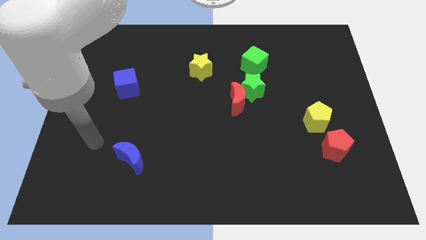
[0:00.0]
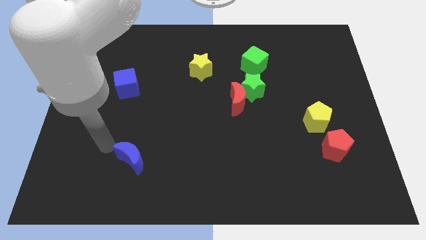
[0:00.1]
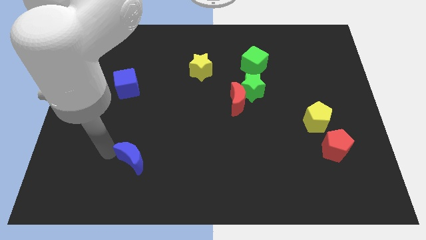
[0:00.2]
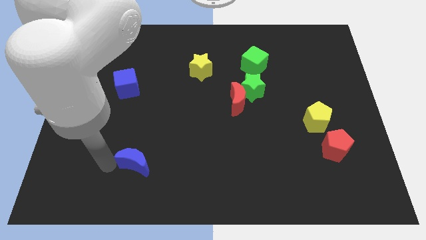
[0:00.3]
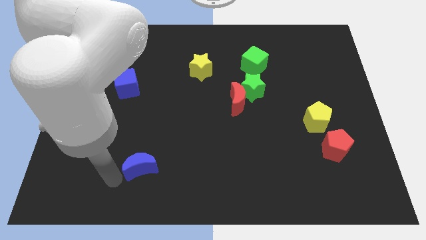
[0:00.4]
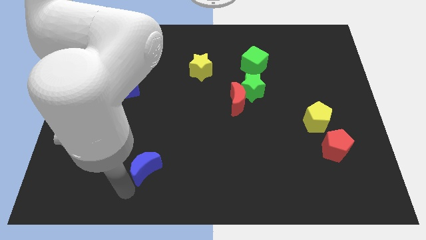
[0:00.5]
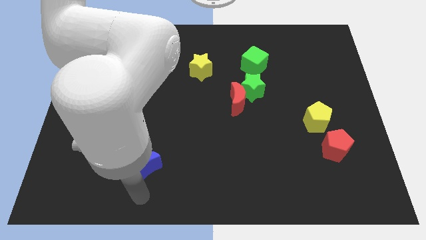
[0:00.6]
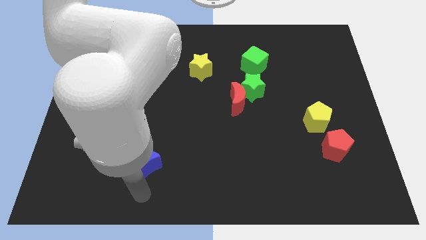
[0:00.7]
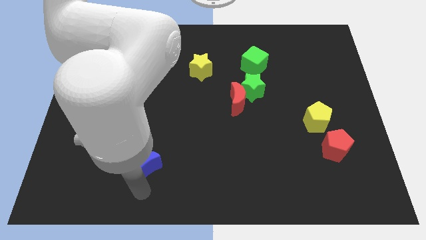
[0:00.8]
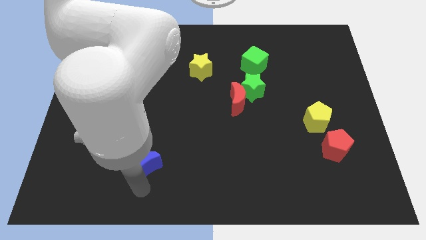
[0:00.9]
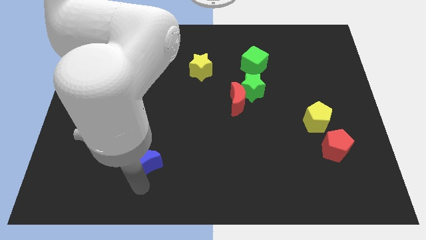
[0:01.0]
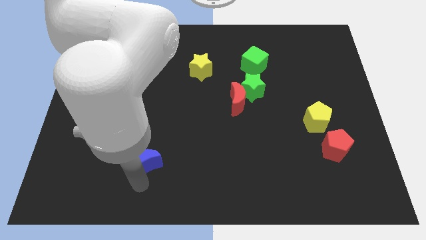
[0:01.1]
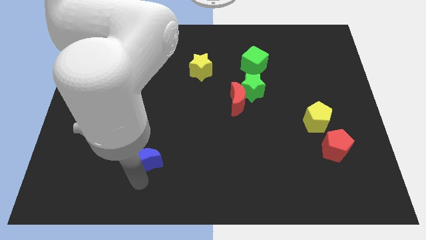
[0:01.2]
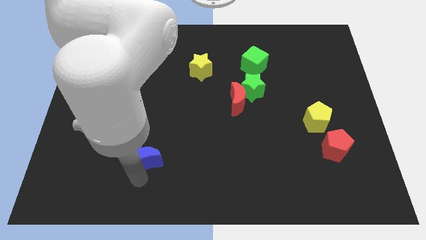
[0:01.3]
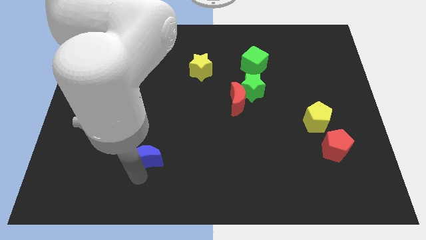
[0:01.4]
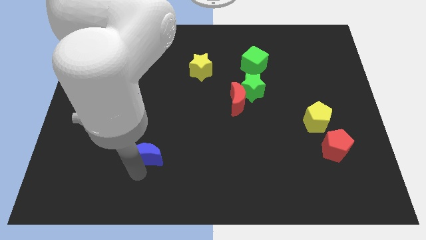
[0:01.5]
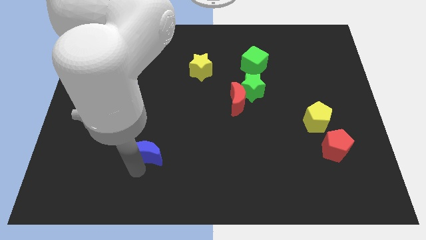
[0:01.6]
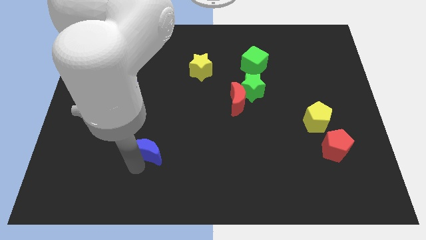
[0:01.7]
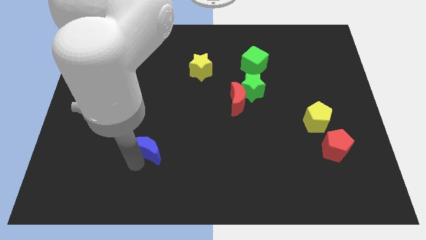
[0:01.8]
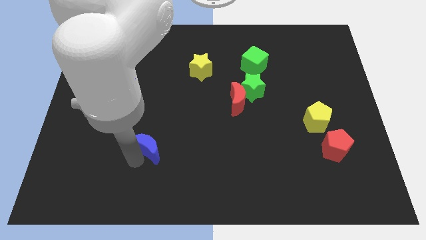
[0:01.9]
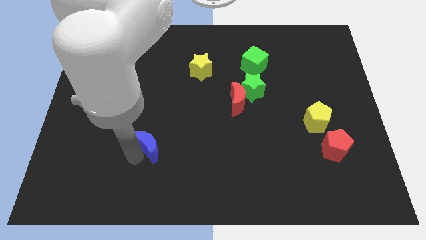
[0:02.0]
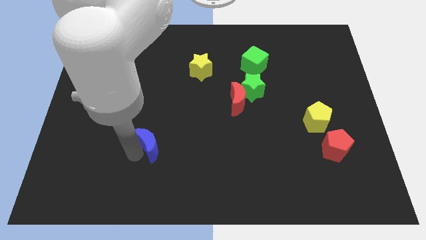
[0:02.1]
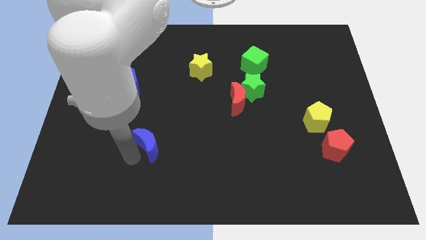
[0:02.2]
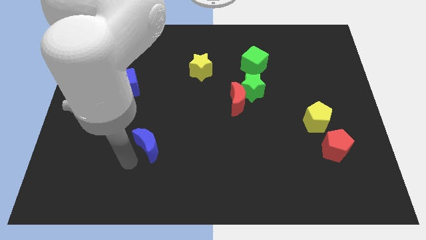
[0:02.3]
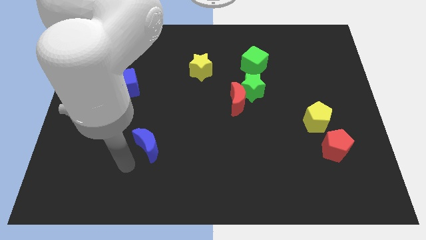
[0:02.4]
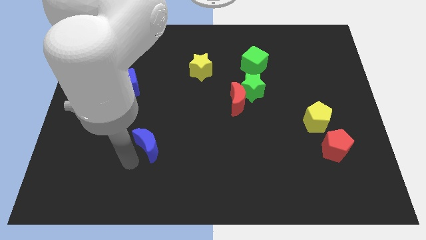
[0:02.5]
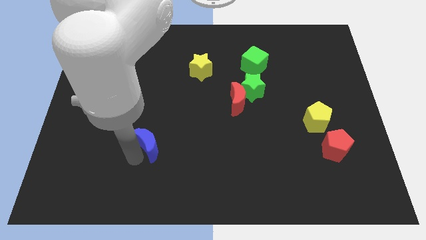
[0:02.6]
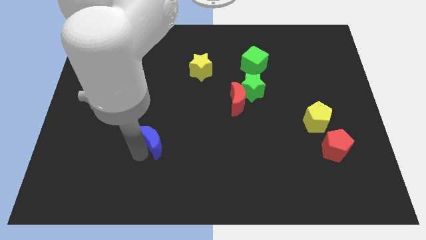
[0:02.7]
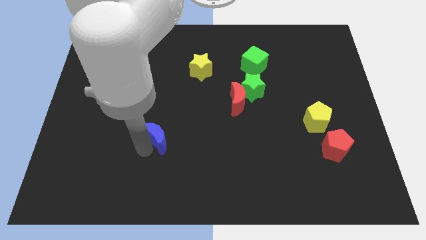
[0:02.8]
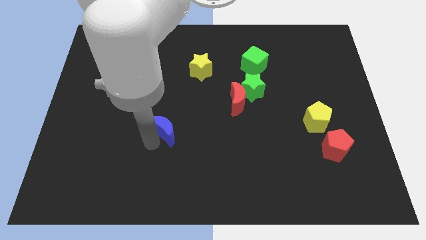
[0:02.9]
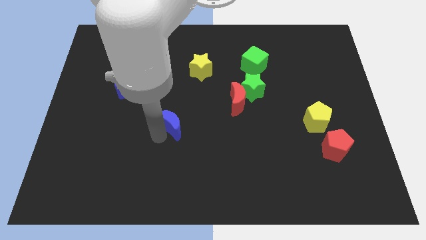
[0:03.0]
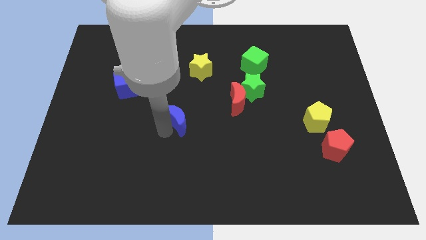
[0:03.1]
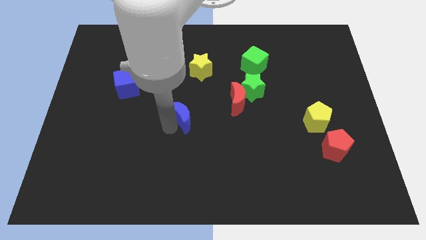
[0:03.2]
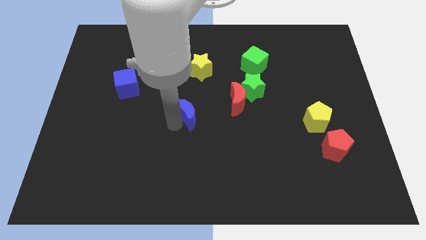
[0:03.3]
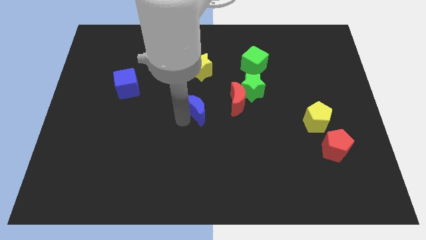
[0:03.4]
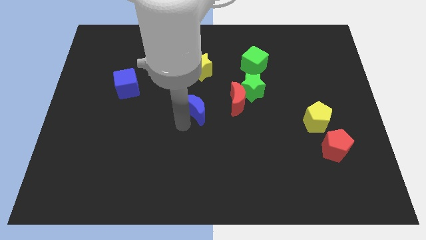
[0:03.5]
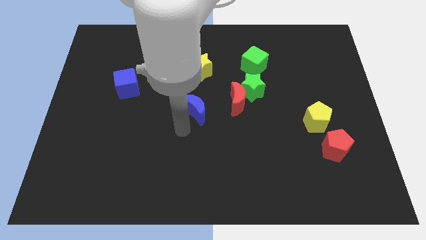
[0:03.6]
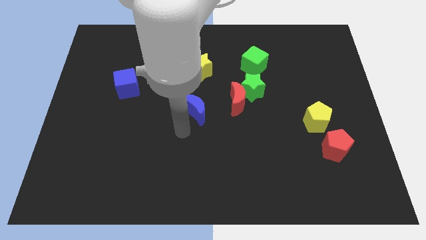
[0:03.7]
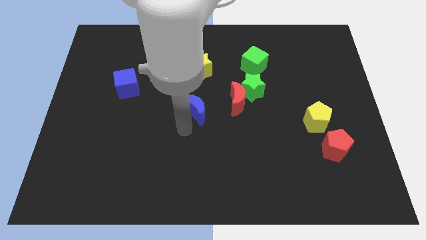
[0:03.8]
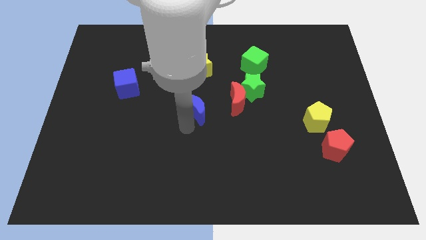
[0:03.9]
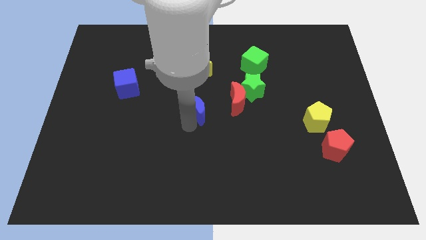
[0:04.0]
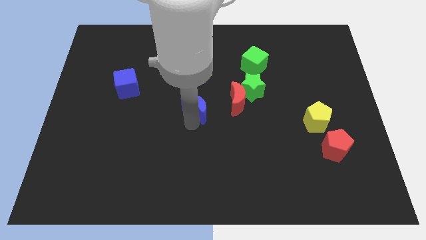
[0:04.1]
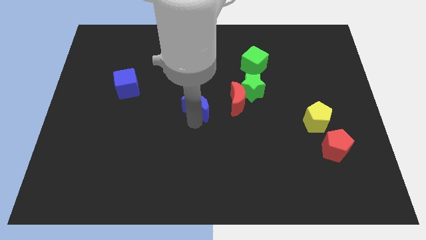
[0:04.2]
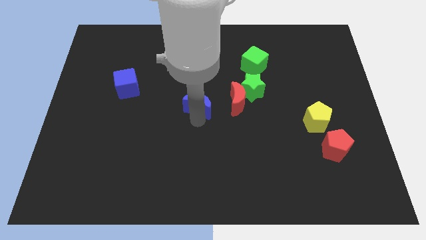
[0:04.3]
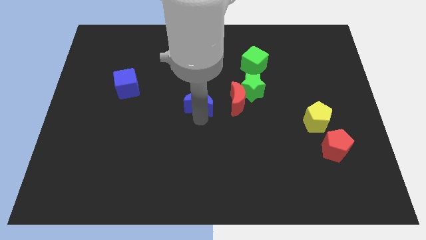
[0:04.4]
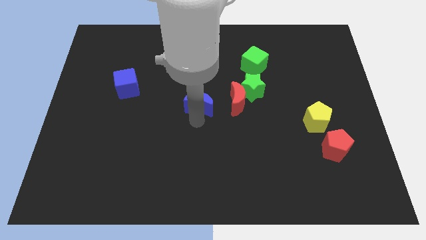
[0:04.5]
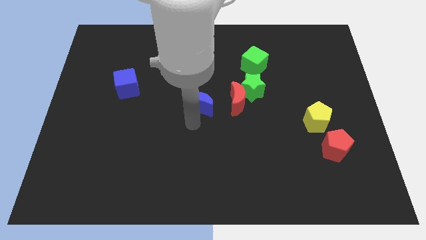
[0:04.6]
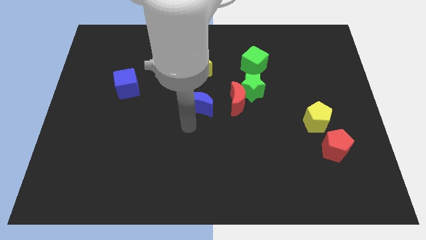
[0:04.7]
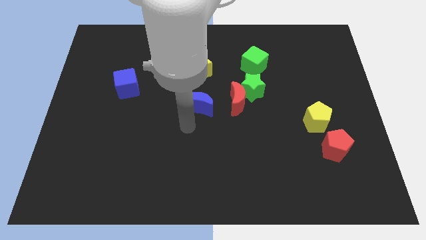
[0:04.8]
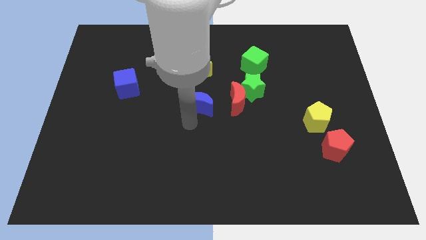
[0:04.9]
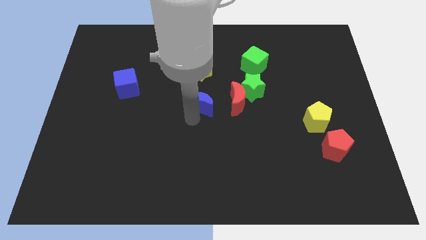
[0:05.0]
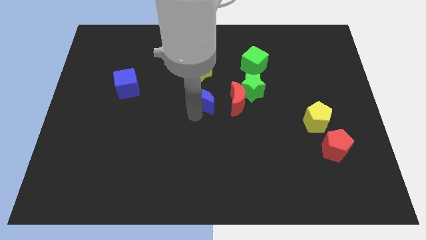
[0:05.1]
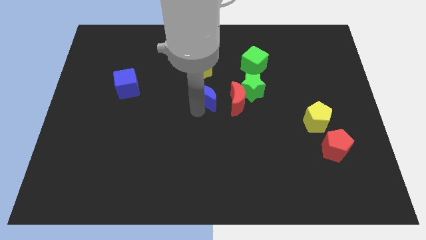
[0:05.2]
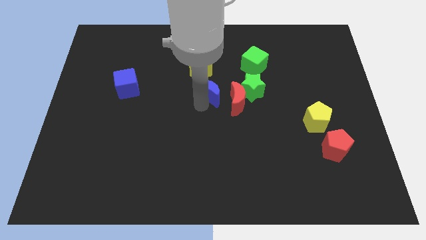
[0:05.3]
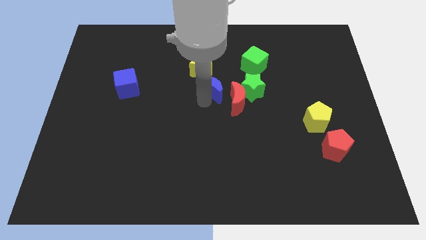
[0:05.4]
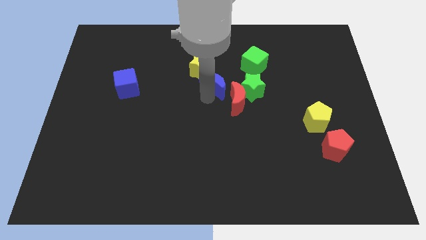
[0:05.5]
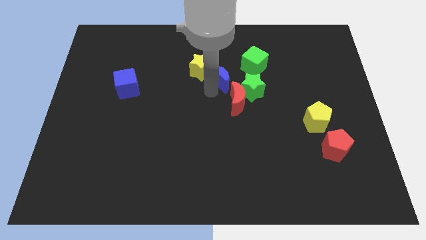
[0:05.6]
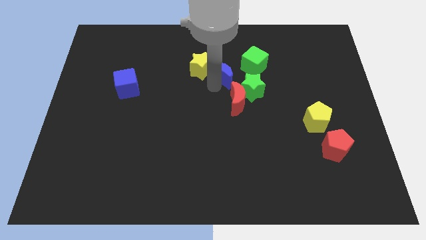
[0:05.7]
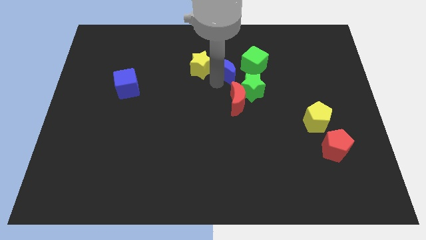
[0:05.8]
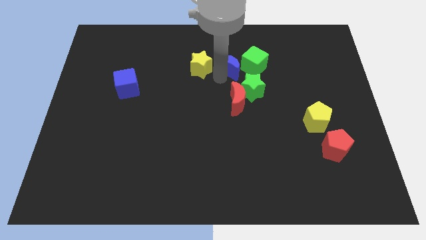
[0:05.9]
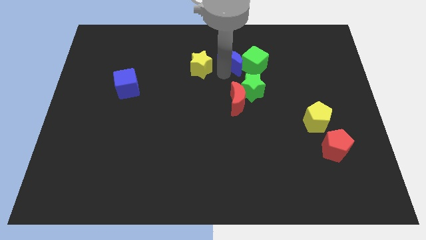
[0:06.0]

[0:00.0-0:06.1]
move the blue moon to the top of the green star
